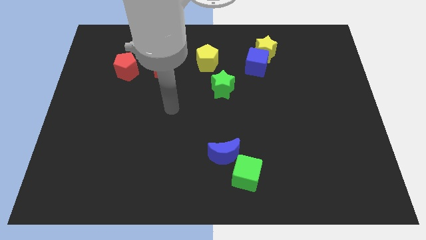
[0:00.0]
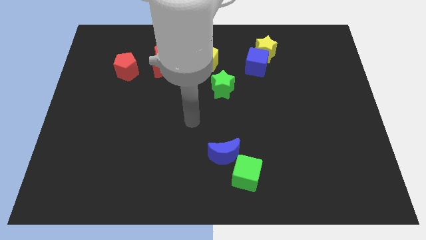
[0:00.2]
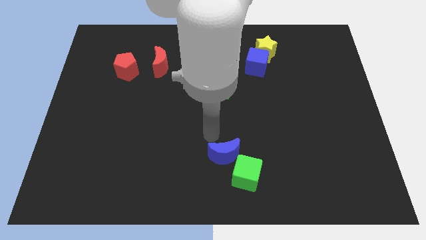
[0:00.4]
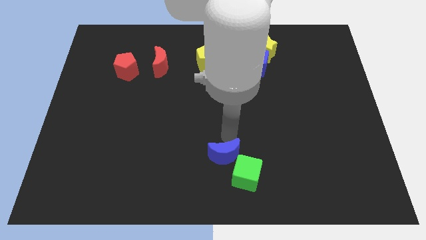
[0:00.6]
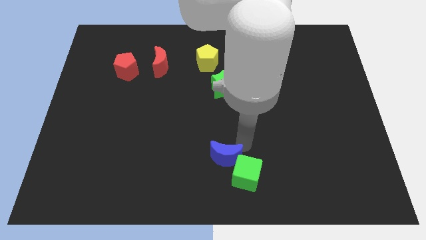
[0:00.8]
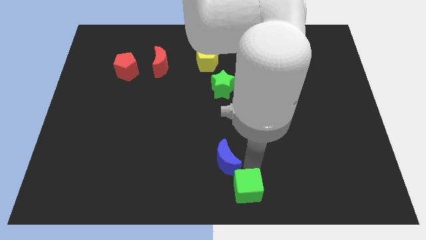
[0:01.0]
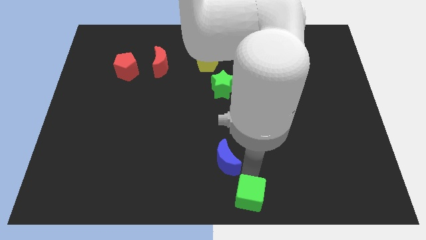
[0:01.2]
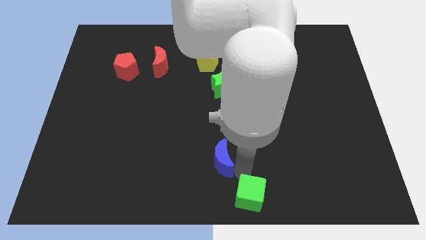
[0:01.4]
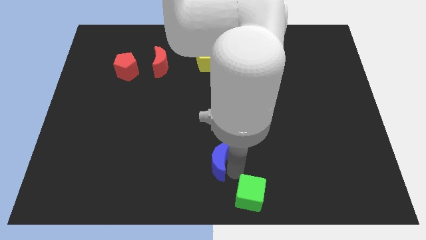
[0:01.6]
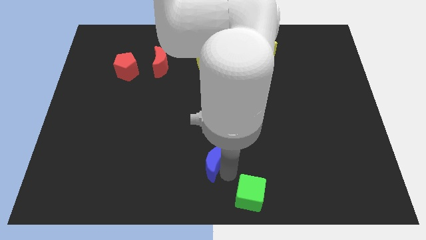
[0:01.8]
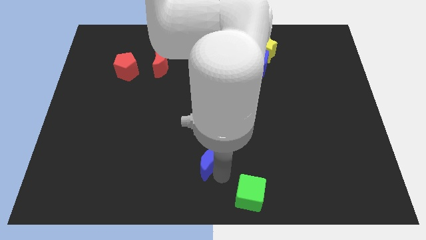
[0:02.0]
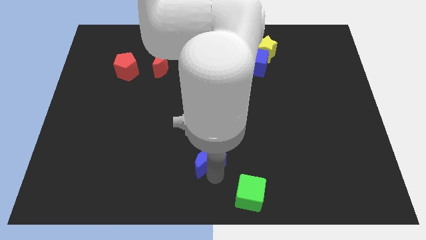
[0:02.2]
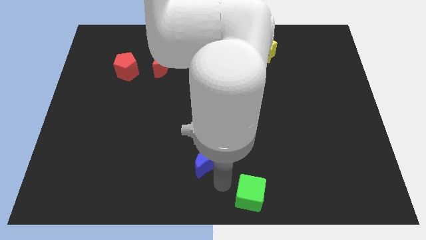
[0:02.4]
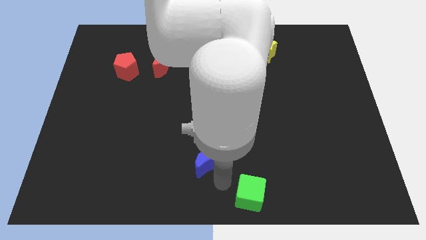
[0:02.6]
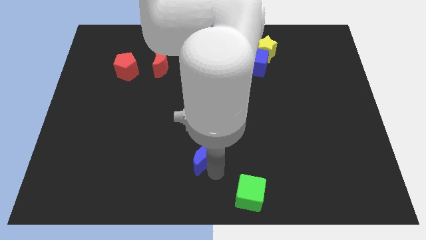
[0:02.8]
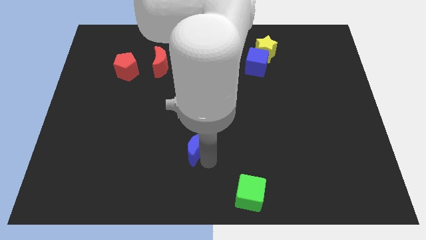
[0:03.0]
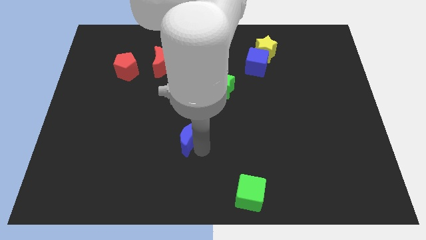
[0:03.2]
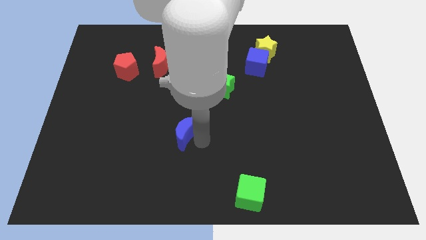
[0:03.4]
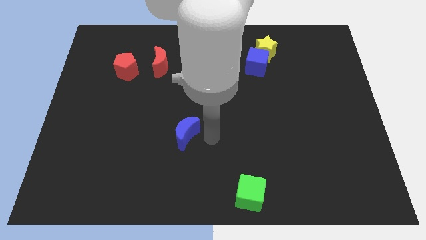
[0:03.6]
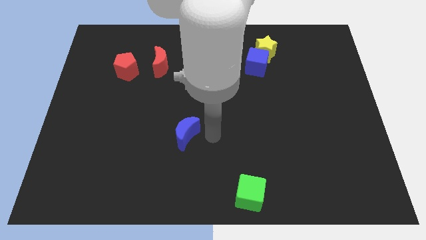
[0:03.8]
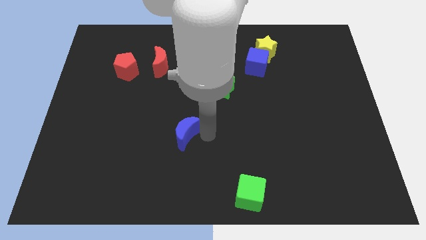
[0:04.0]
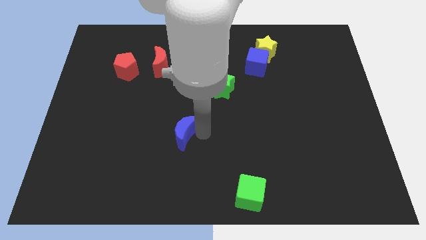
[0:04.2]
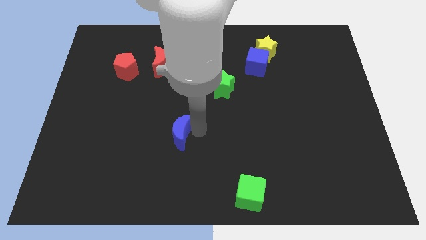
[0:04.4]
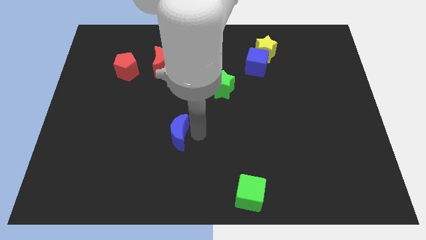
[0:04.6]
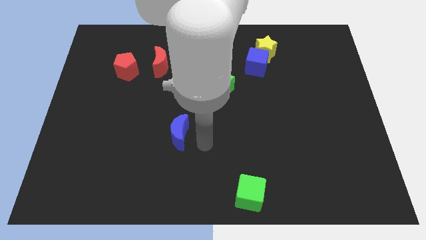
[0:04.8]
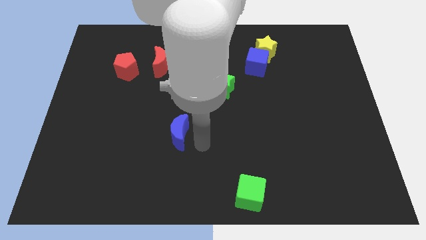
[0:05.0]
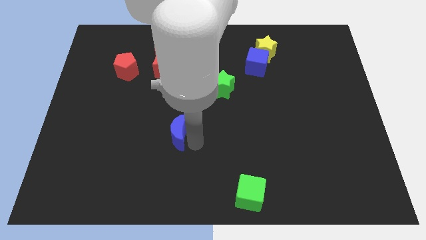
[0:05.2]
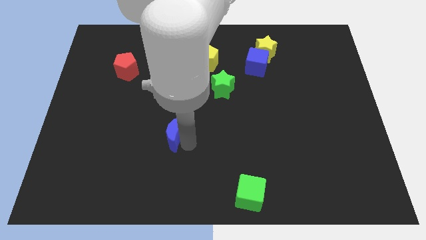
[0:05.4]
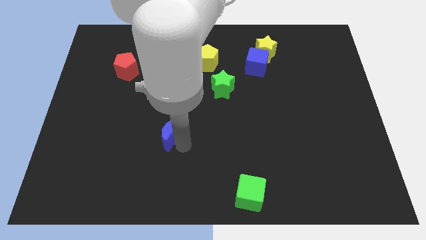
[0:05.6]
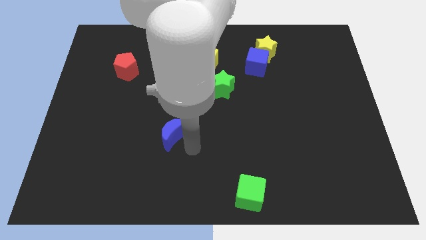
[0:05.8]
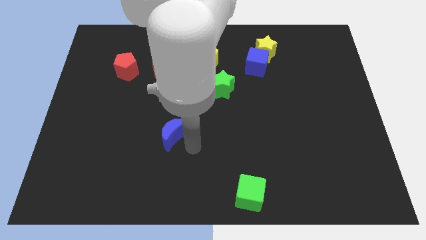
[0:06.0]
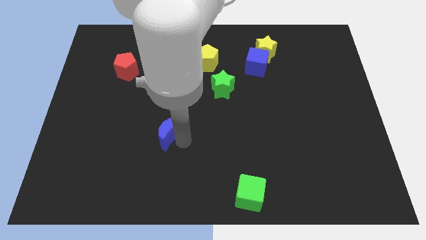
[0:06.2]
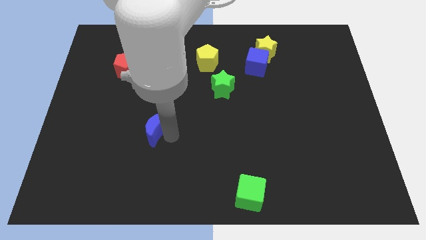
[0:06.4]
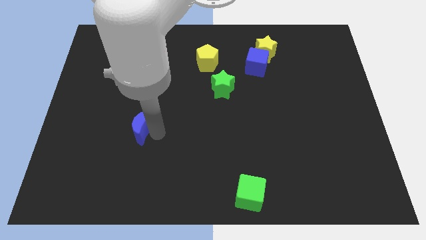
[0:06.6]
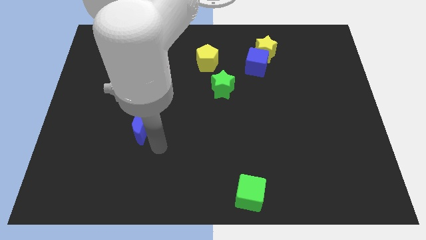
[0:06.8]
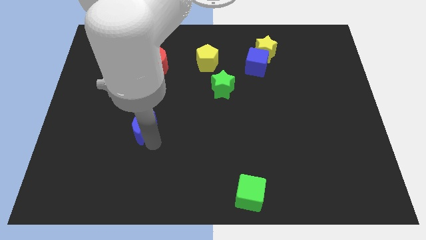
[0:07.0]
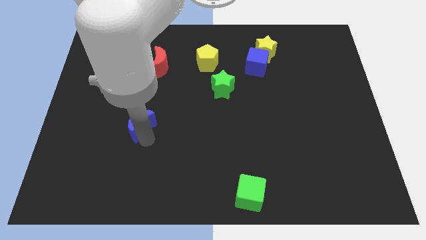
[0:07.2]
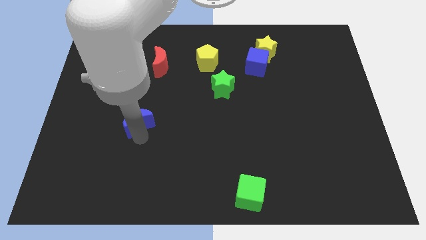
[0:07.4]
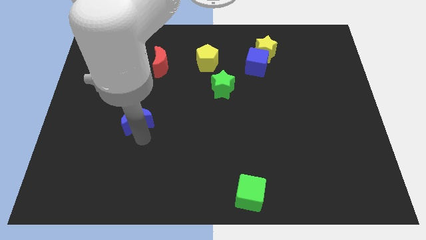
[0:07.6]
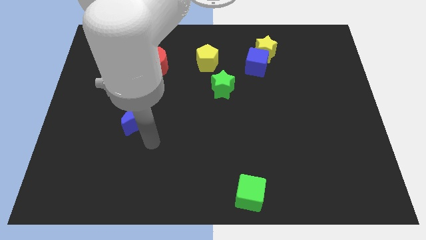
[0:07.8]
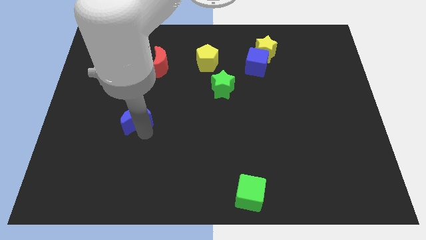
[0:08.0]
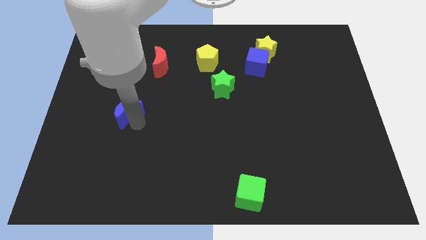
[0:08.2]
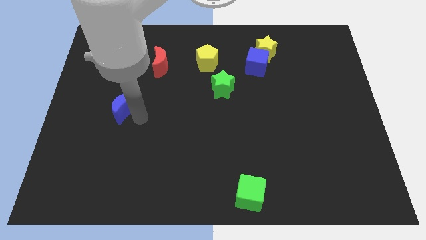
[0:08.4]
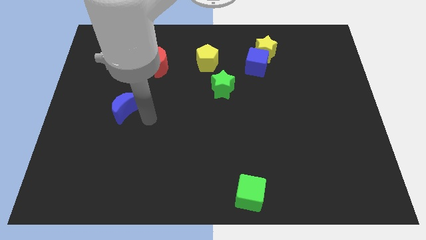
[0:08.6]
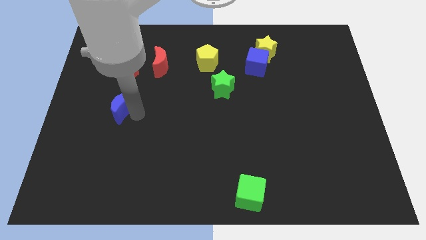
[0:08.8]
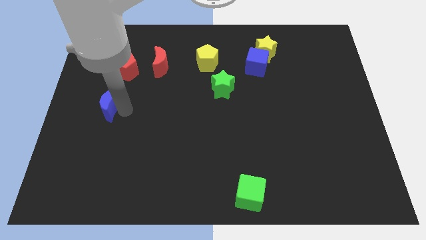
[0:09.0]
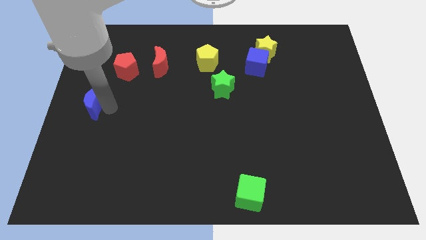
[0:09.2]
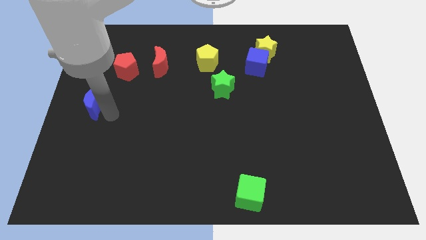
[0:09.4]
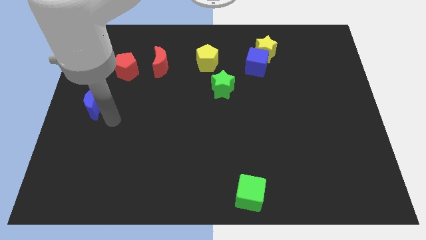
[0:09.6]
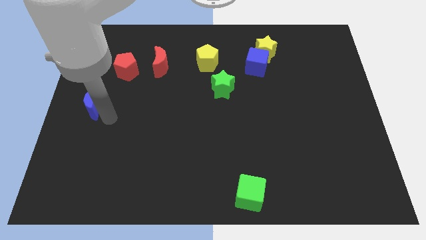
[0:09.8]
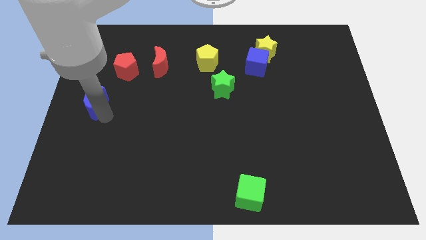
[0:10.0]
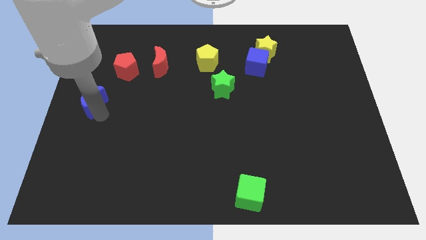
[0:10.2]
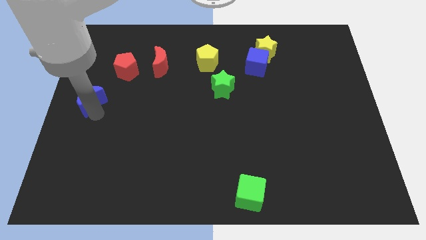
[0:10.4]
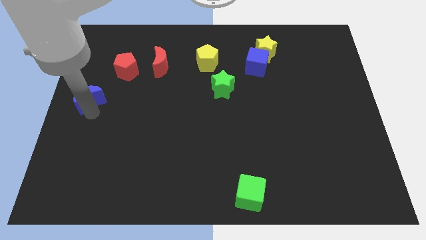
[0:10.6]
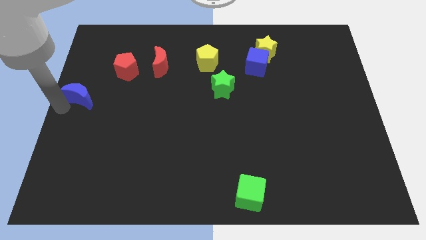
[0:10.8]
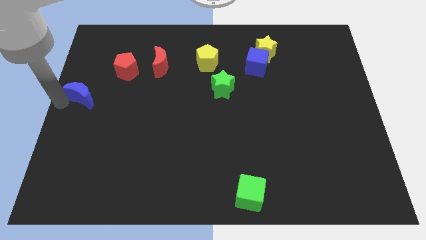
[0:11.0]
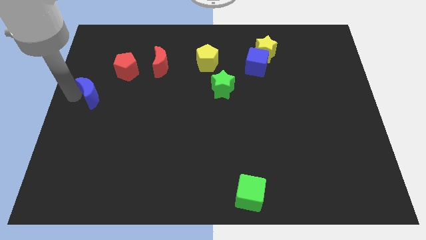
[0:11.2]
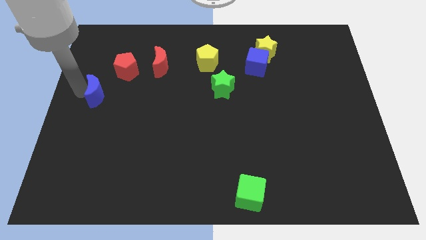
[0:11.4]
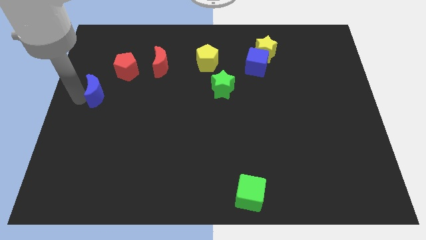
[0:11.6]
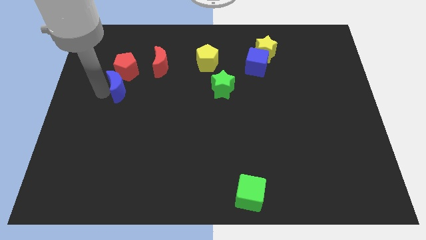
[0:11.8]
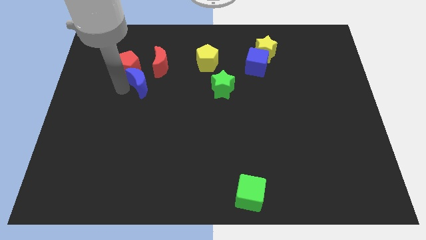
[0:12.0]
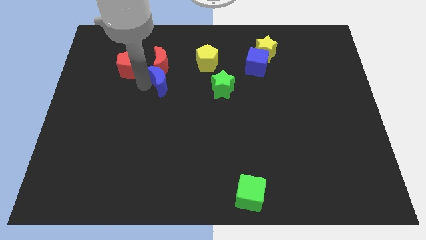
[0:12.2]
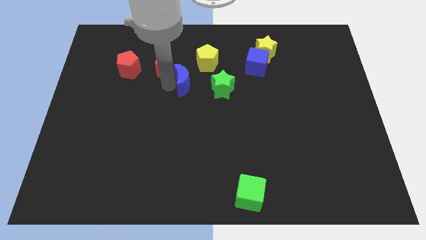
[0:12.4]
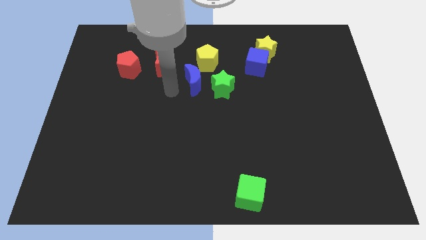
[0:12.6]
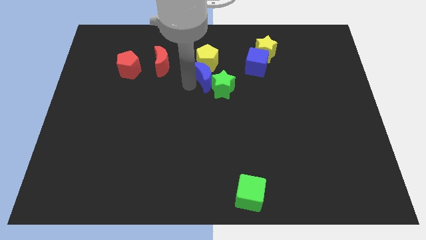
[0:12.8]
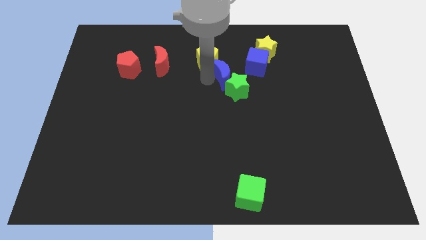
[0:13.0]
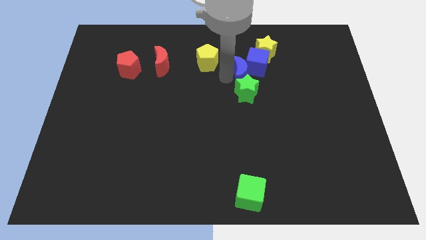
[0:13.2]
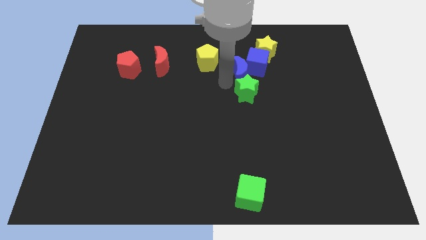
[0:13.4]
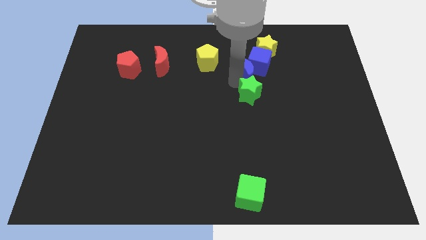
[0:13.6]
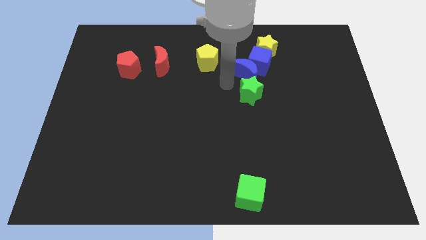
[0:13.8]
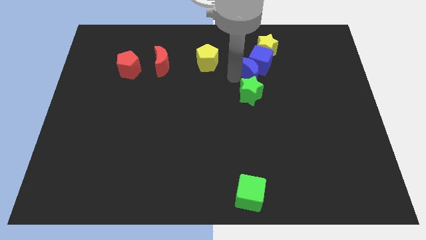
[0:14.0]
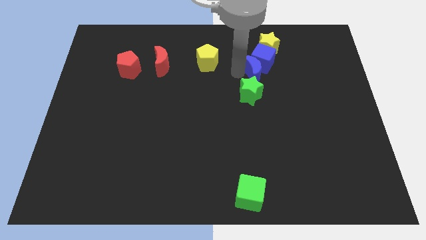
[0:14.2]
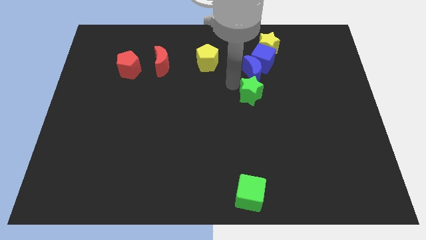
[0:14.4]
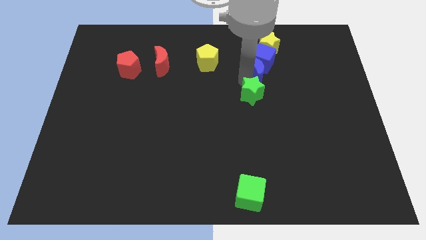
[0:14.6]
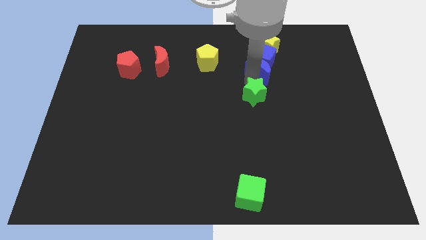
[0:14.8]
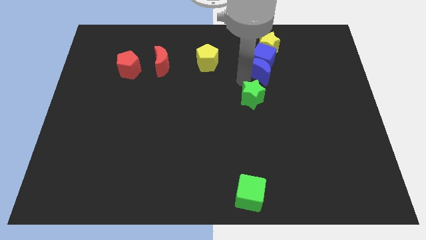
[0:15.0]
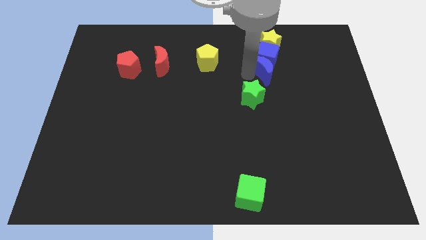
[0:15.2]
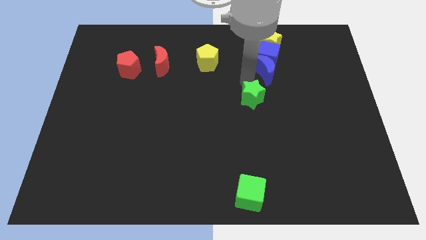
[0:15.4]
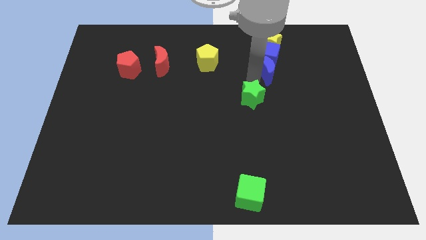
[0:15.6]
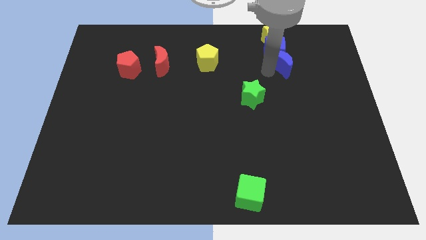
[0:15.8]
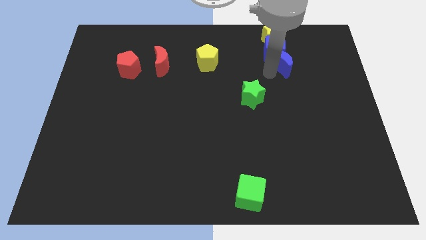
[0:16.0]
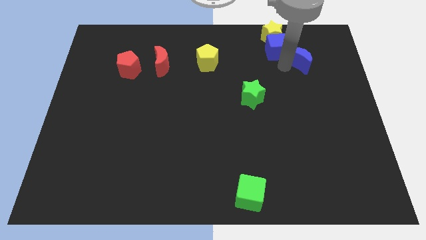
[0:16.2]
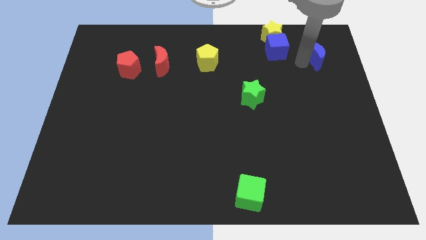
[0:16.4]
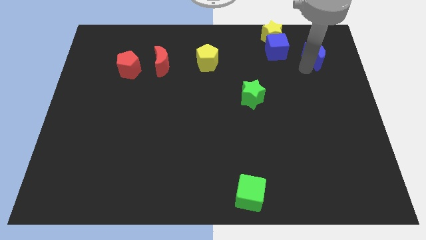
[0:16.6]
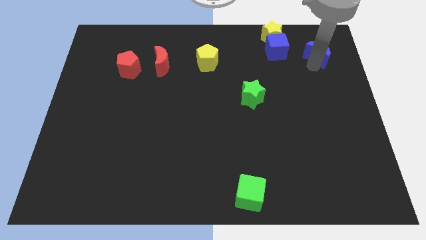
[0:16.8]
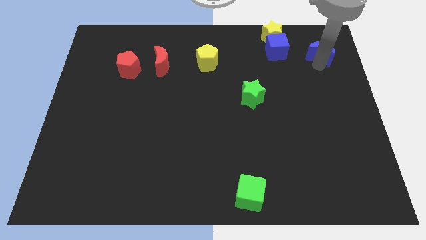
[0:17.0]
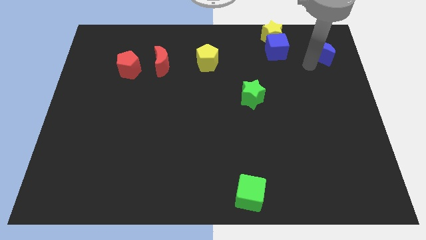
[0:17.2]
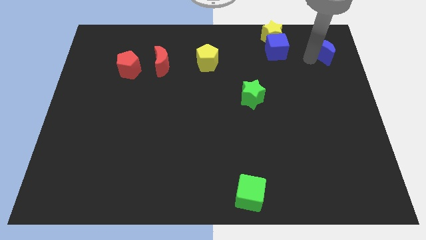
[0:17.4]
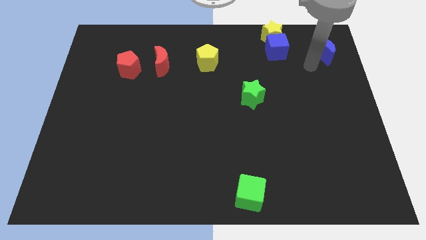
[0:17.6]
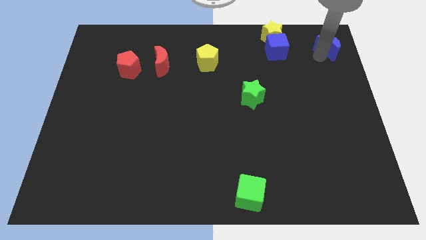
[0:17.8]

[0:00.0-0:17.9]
slide the blue moon to the top right of the board
